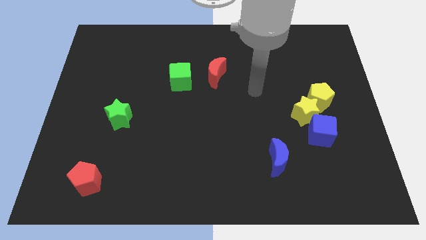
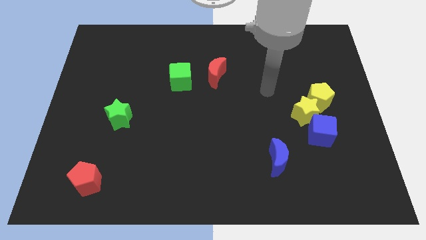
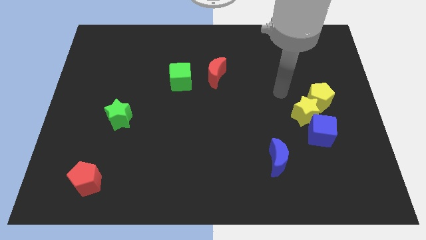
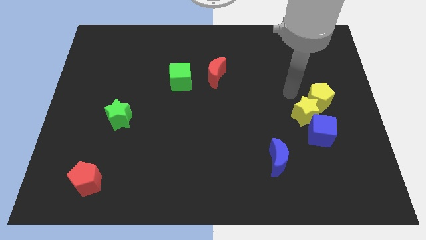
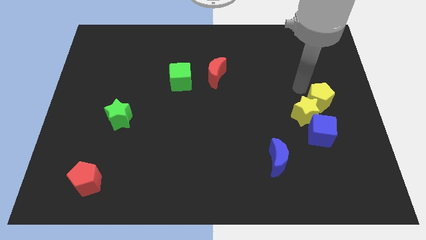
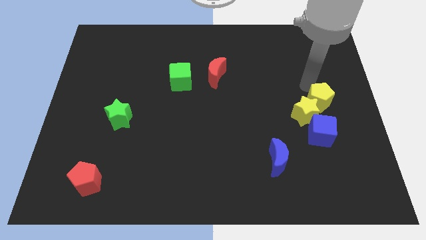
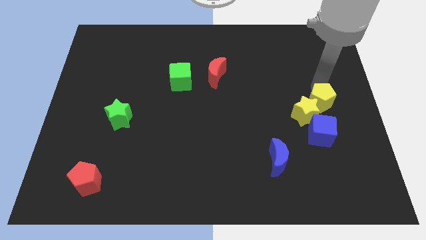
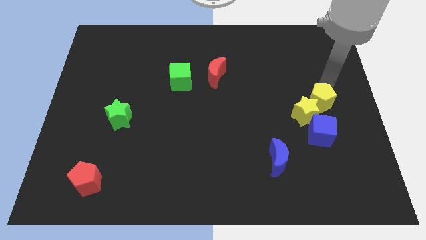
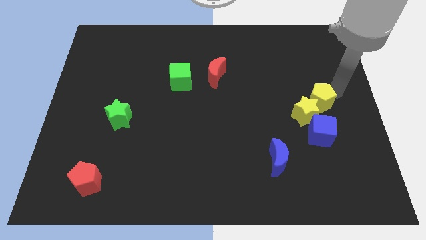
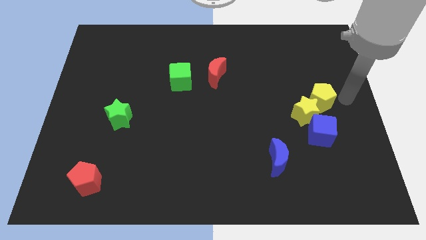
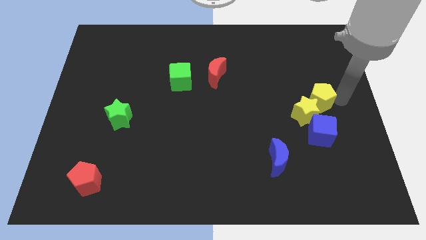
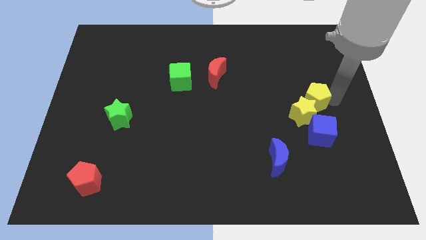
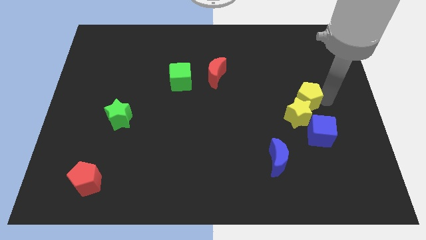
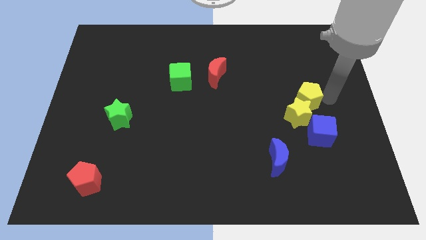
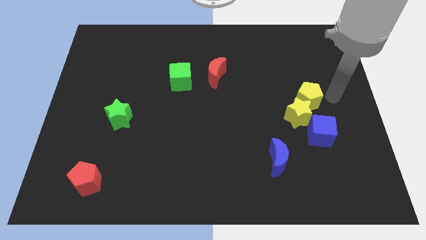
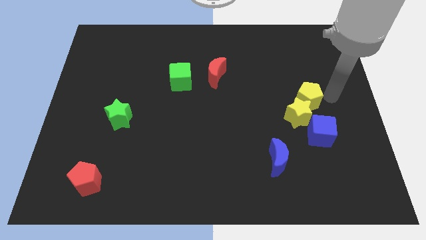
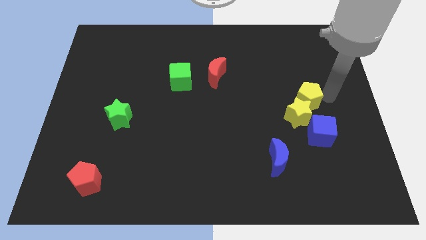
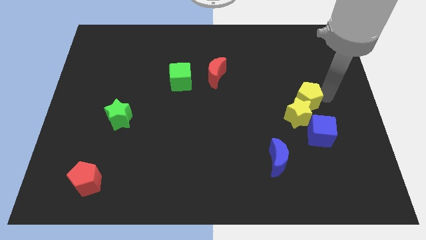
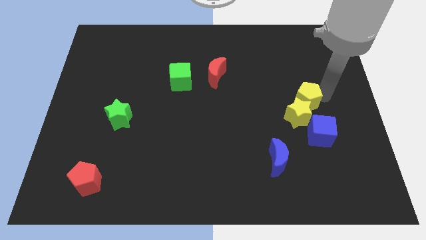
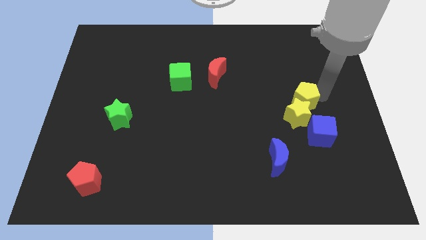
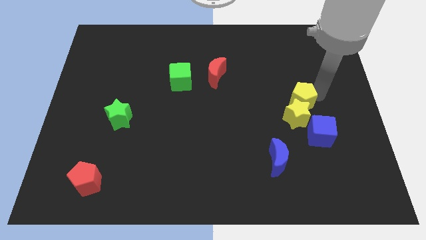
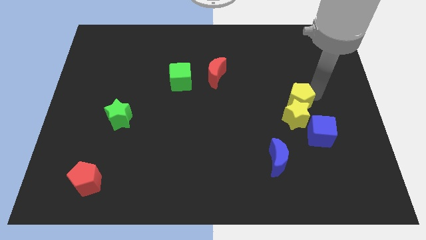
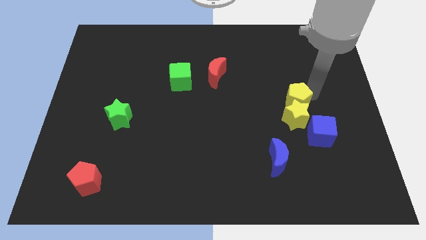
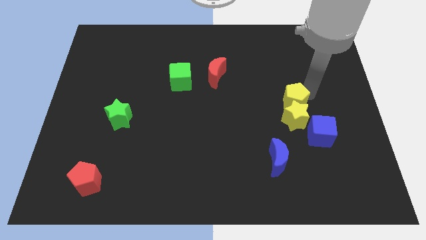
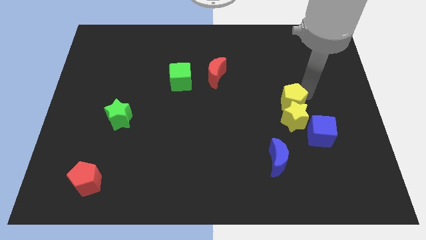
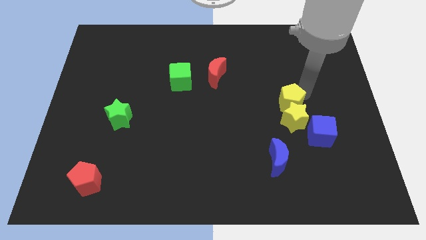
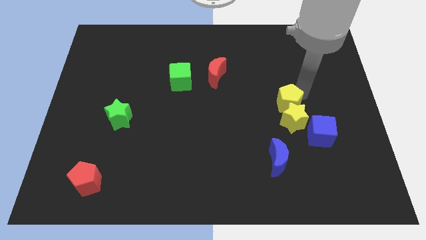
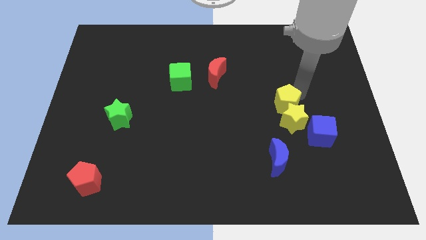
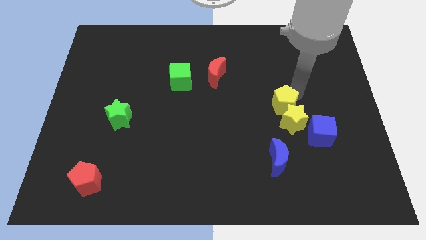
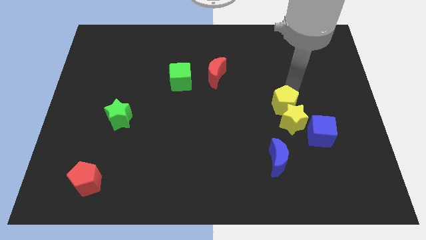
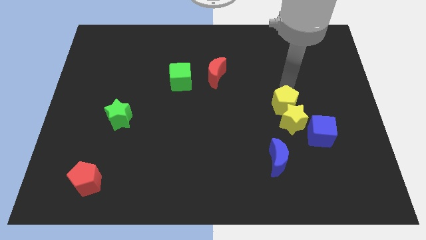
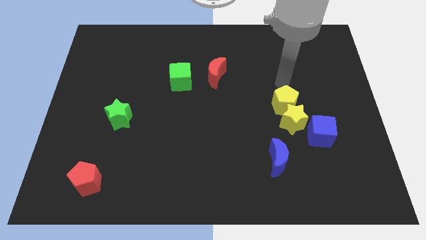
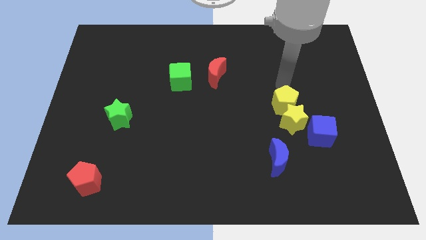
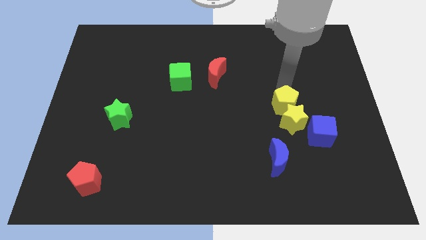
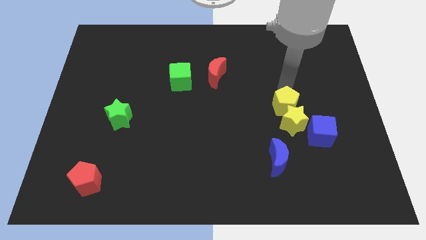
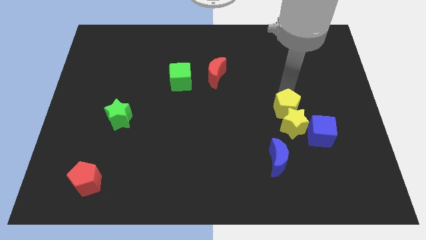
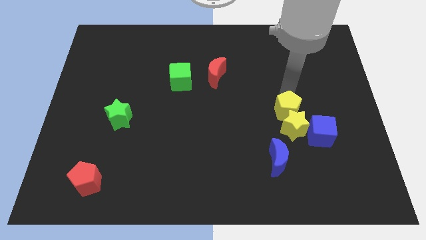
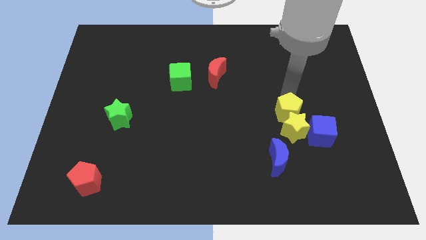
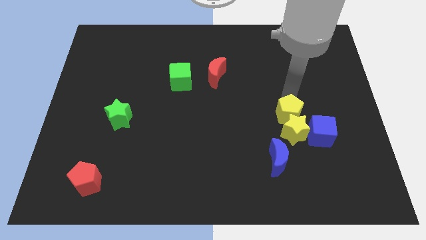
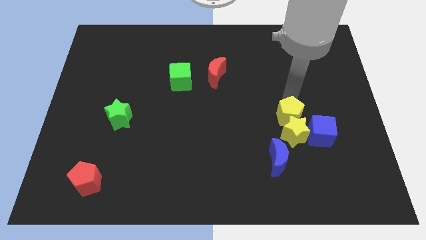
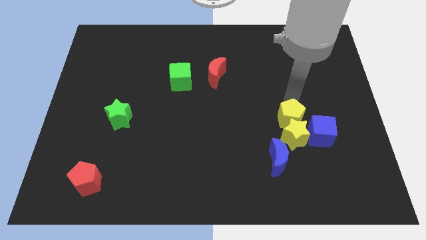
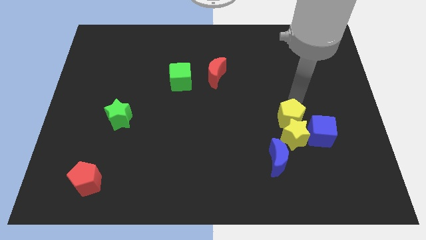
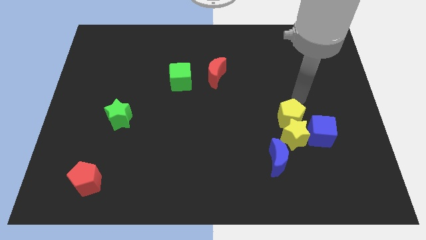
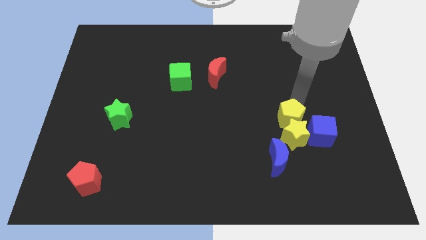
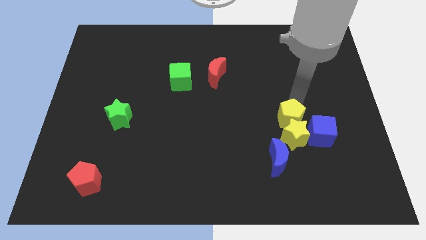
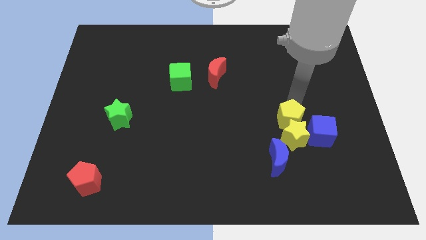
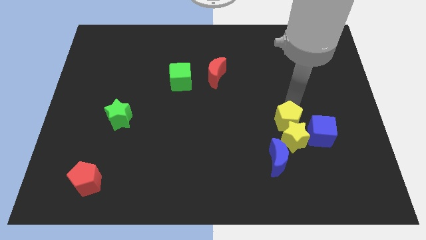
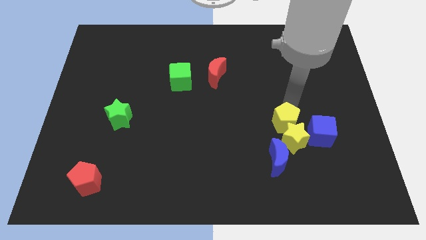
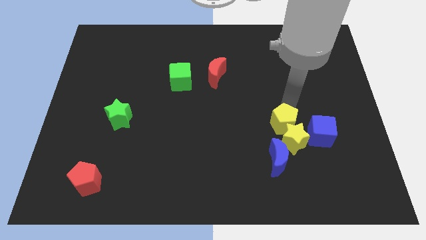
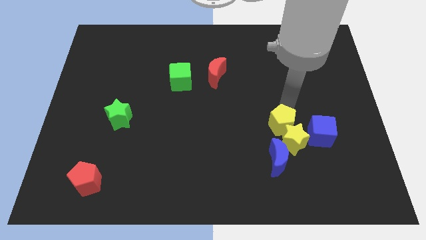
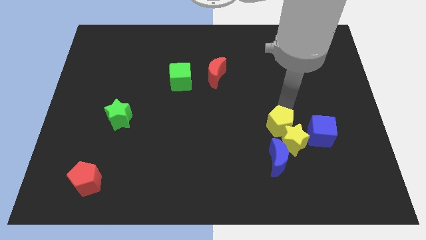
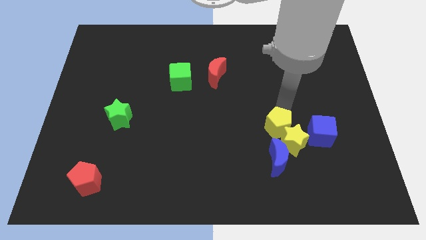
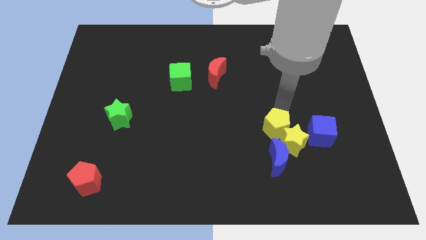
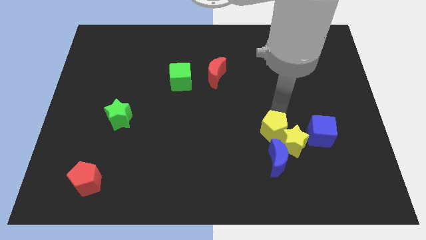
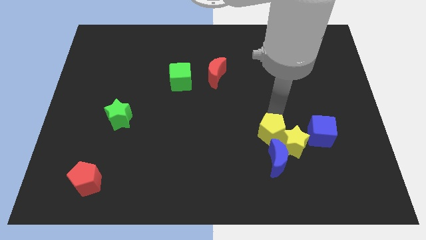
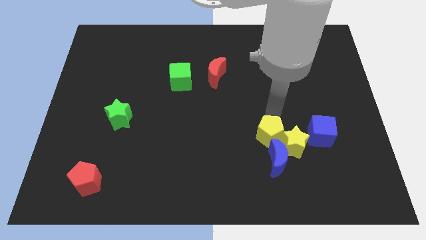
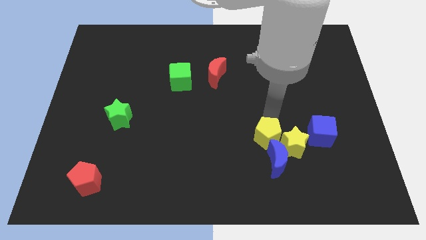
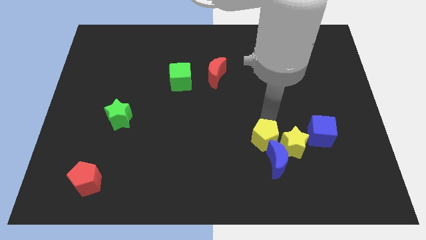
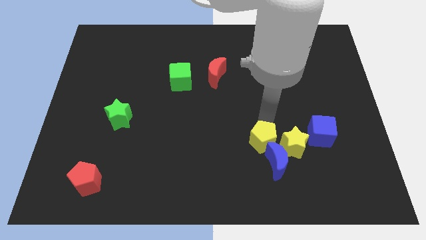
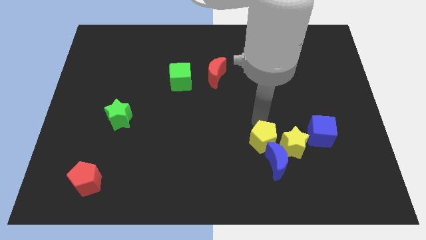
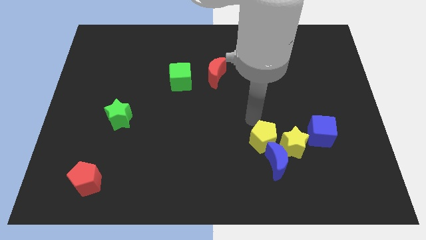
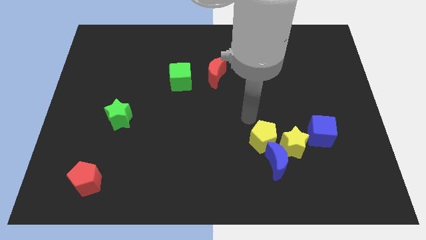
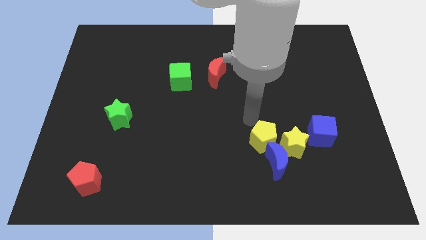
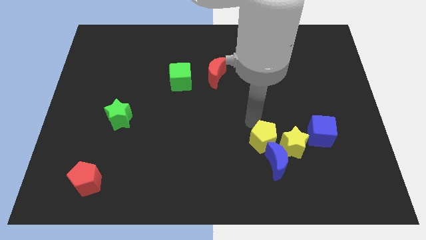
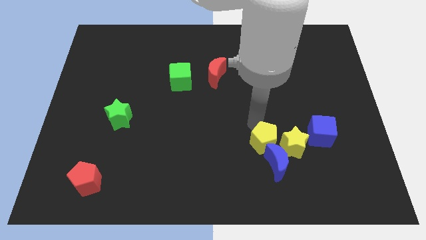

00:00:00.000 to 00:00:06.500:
push the yellow pentagon towards the blue moon

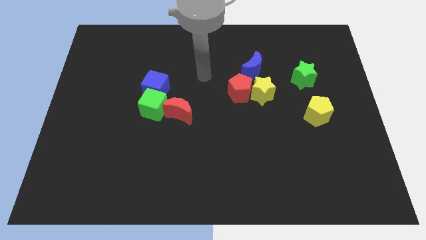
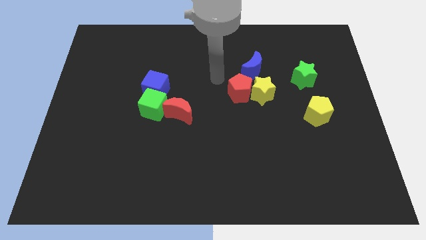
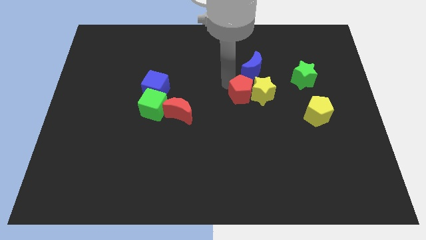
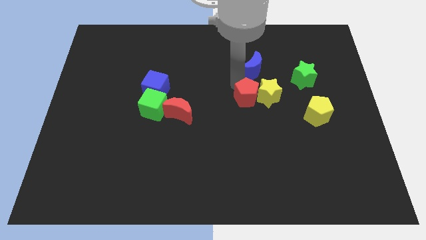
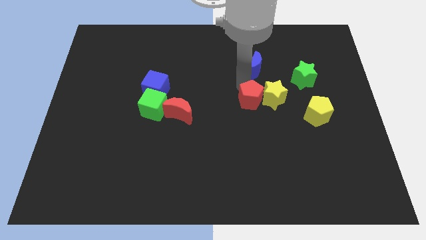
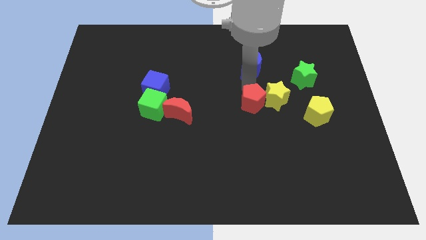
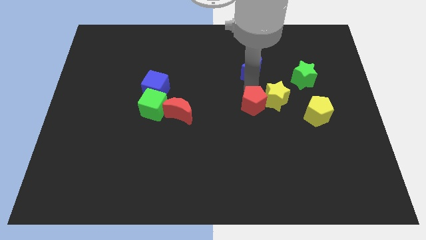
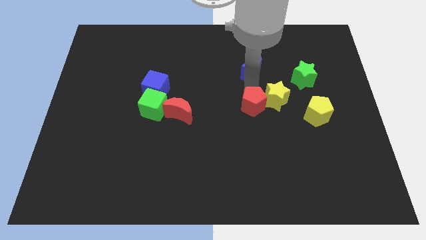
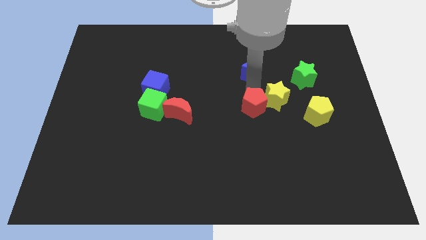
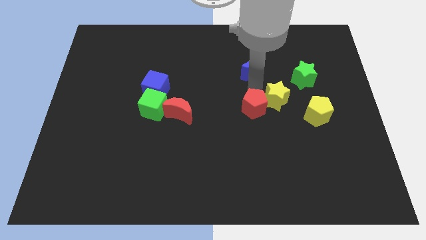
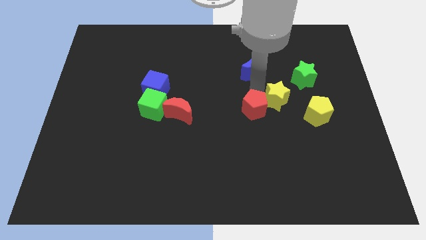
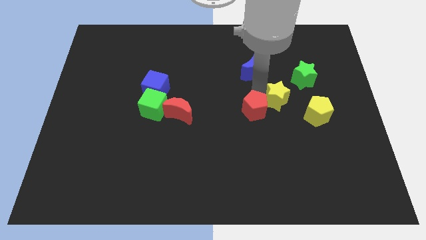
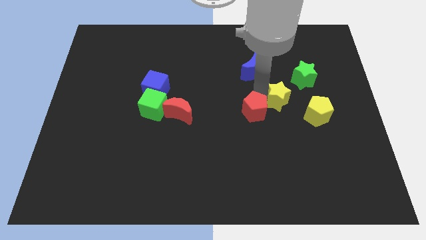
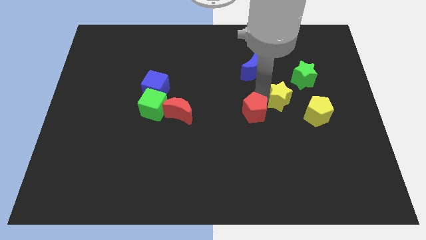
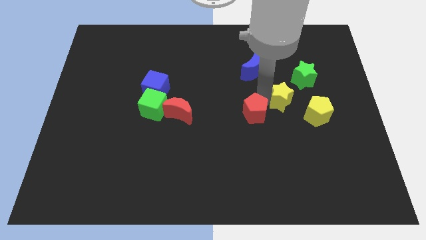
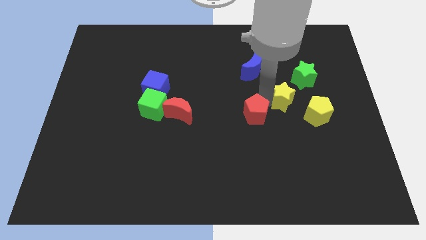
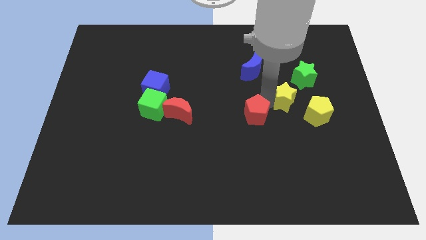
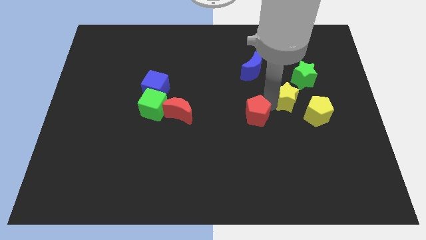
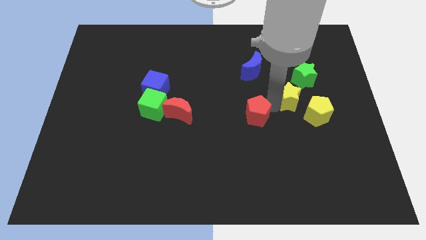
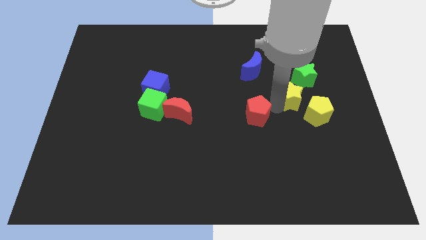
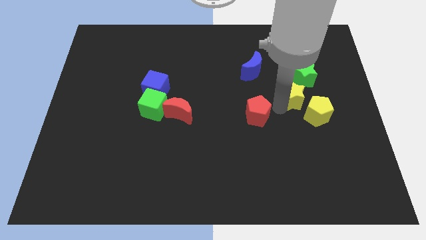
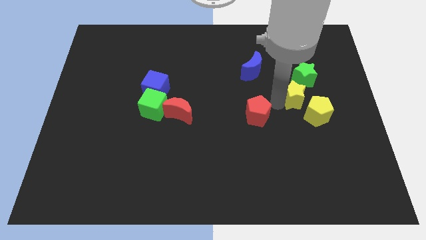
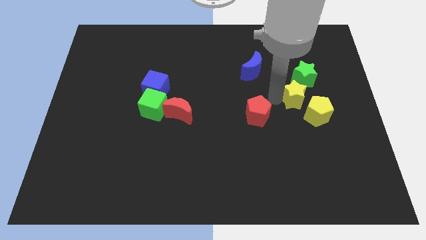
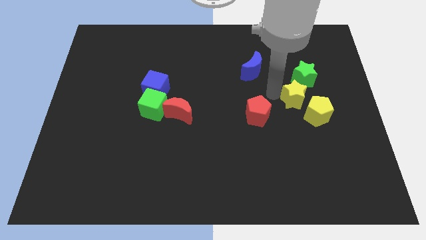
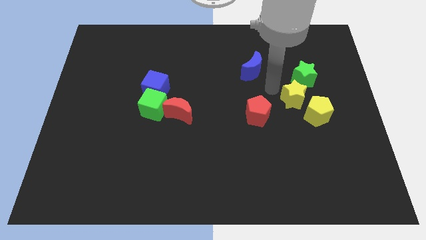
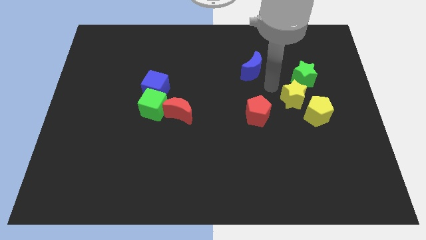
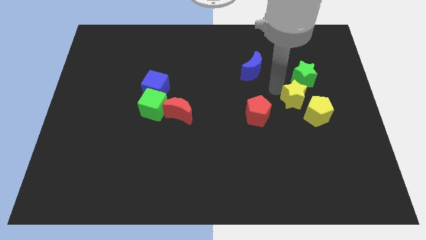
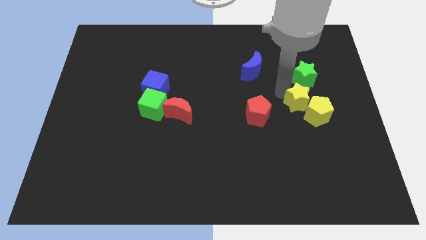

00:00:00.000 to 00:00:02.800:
put the yellow star to the yellow pentagon
